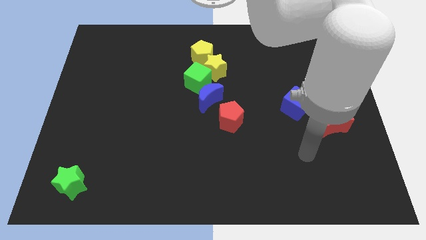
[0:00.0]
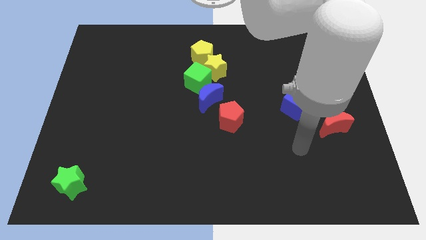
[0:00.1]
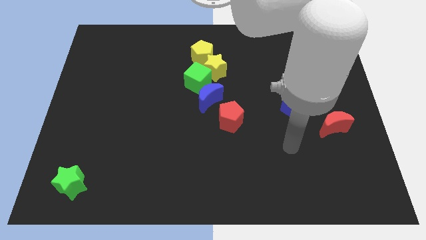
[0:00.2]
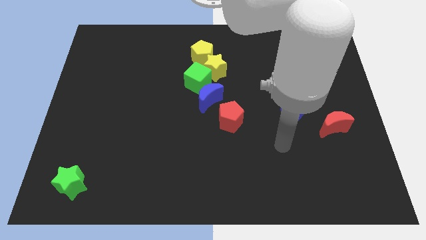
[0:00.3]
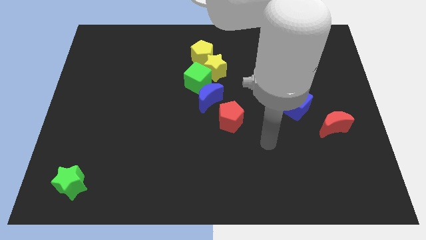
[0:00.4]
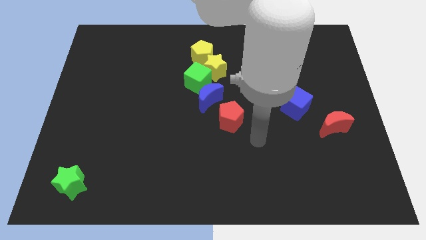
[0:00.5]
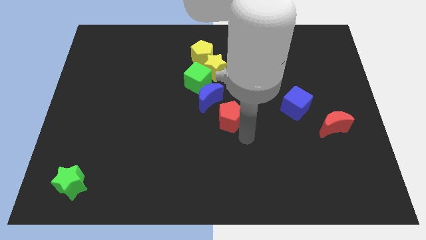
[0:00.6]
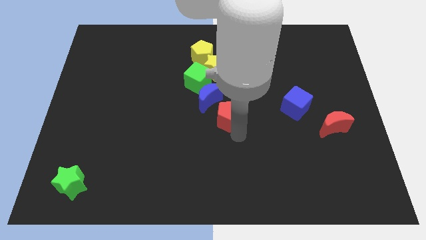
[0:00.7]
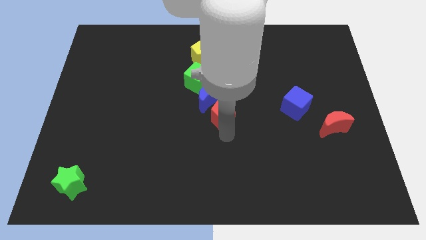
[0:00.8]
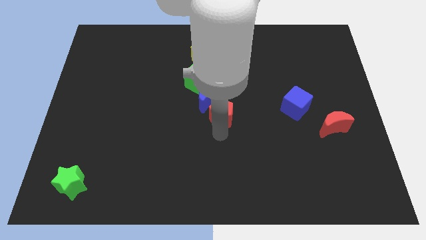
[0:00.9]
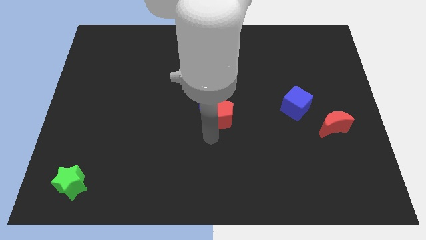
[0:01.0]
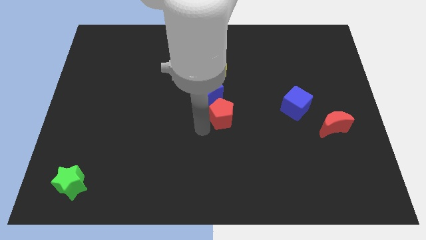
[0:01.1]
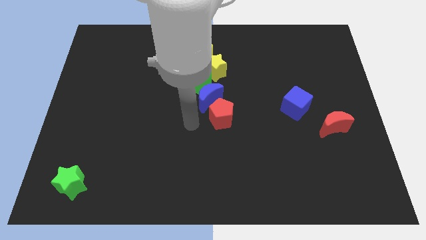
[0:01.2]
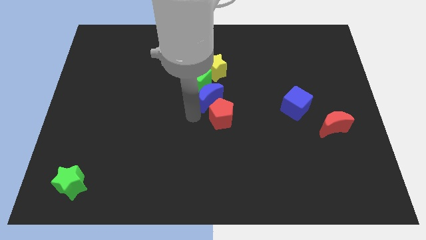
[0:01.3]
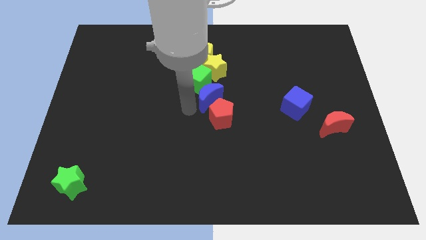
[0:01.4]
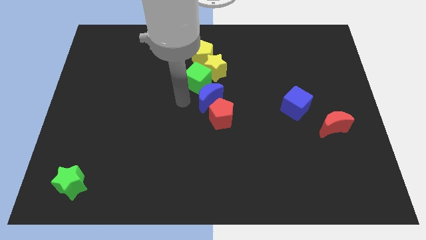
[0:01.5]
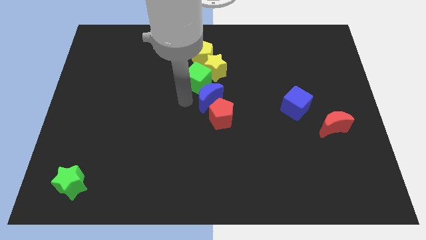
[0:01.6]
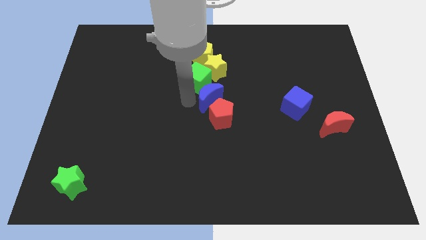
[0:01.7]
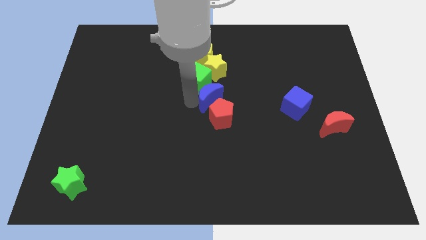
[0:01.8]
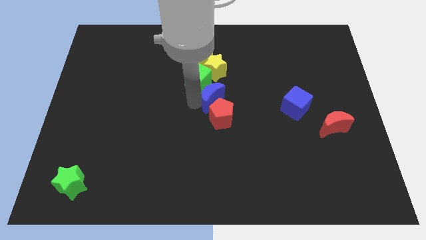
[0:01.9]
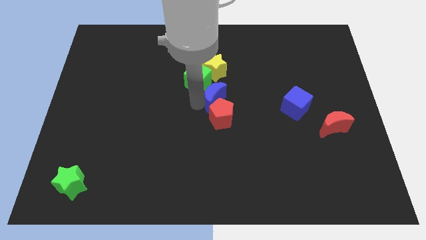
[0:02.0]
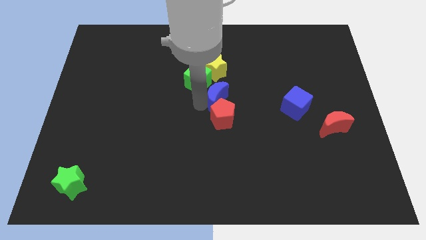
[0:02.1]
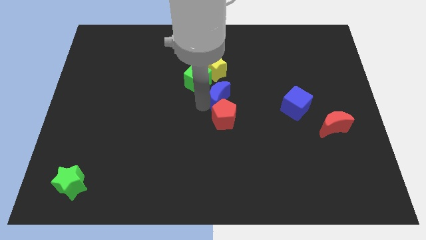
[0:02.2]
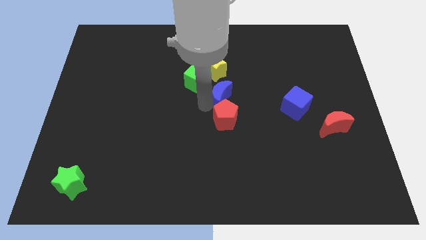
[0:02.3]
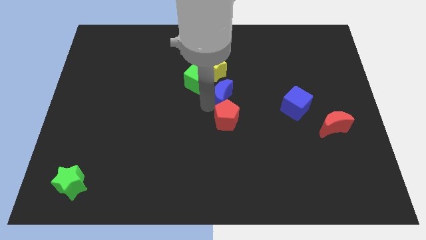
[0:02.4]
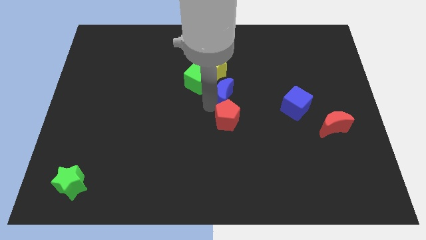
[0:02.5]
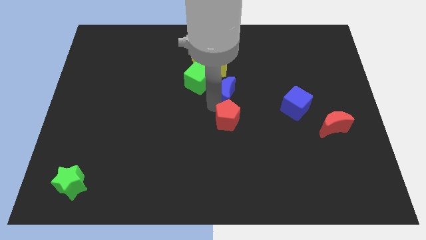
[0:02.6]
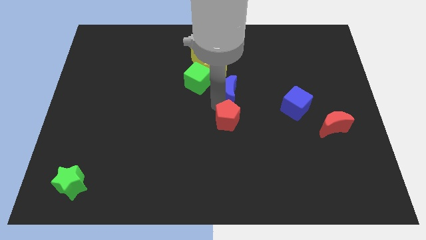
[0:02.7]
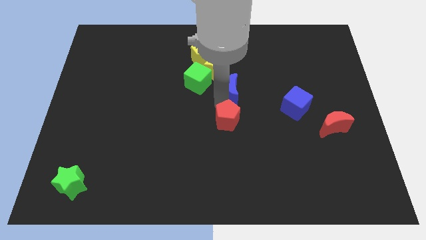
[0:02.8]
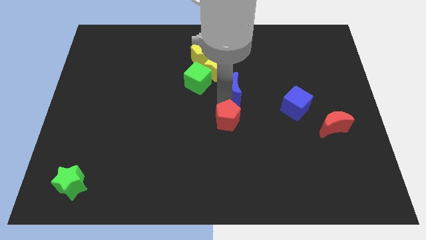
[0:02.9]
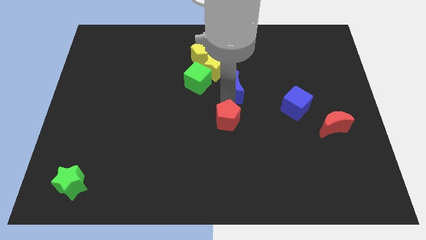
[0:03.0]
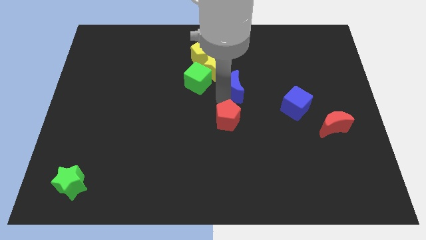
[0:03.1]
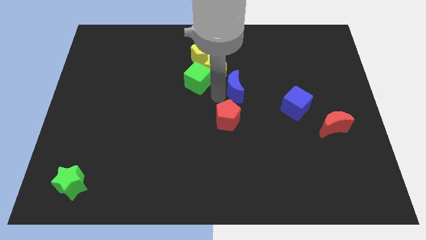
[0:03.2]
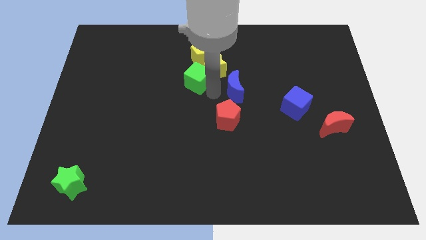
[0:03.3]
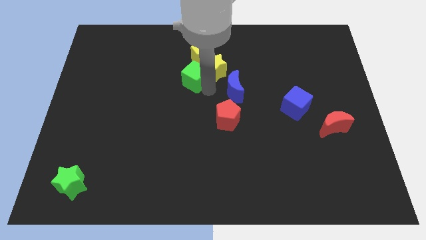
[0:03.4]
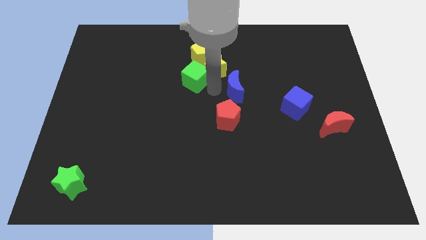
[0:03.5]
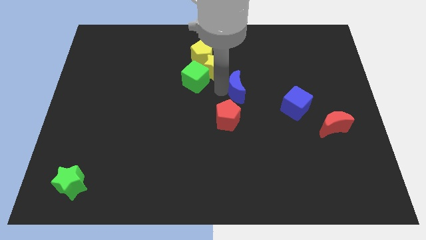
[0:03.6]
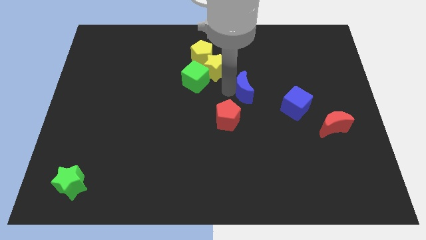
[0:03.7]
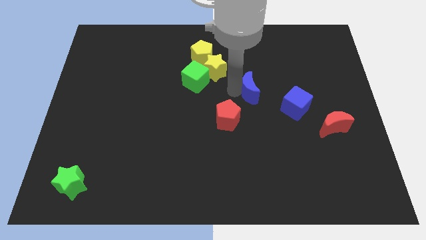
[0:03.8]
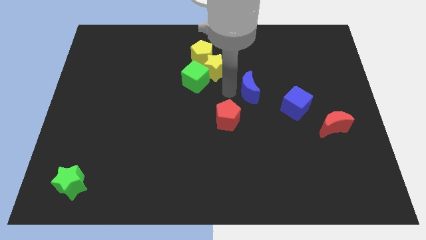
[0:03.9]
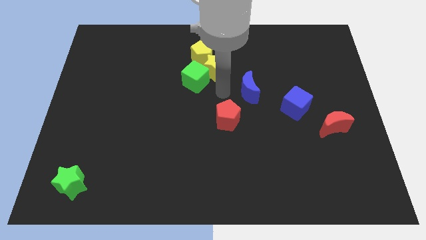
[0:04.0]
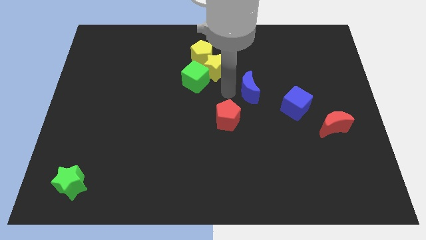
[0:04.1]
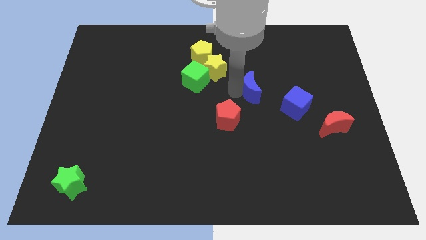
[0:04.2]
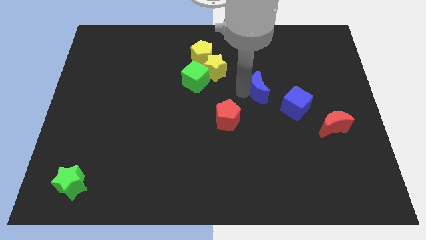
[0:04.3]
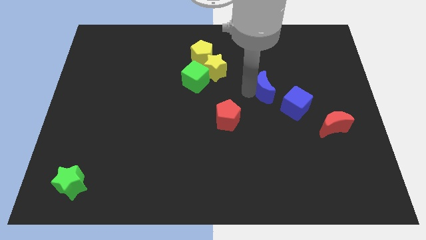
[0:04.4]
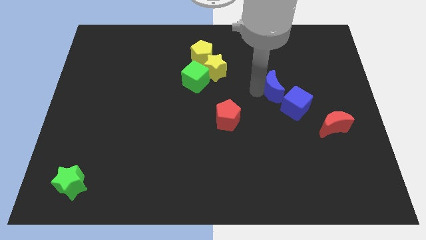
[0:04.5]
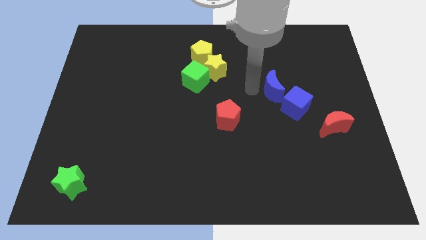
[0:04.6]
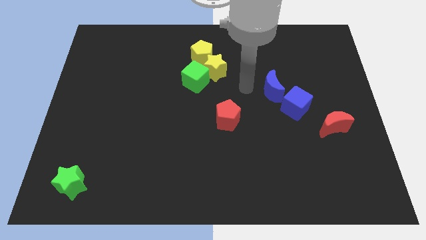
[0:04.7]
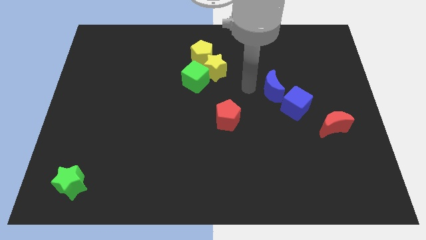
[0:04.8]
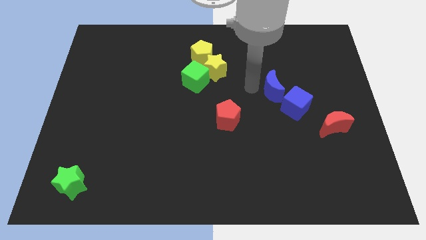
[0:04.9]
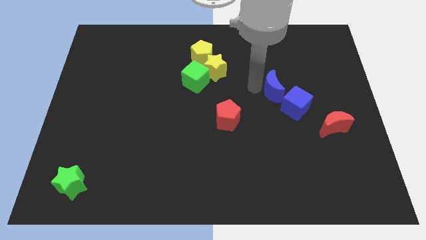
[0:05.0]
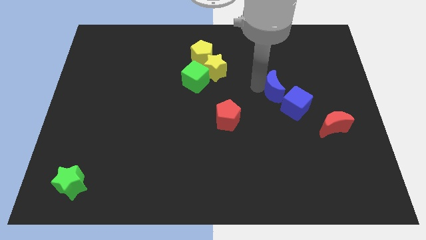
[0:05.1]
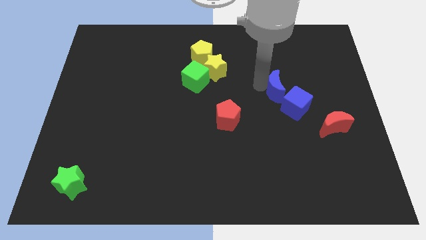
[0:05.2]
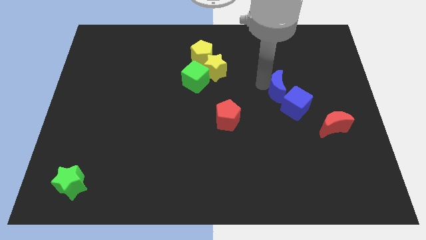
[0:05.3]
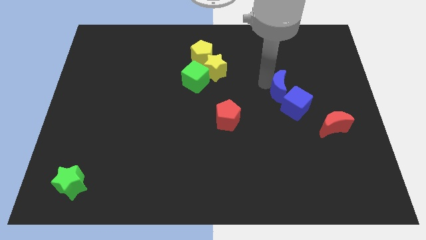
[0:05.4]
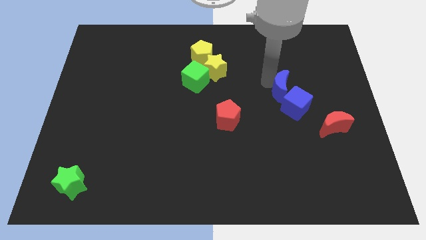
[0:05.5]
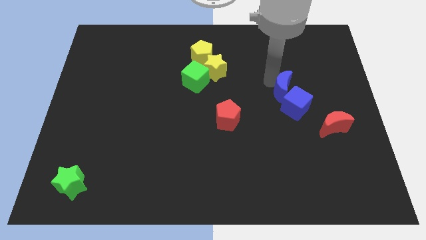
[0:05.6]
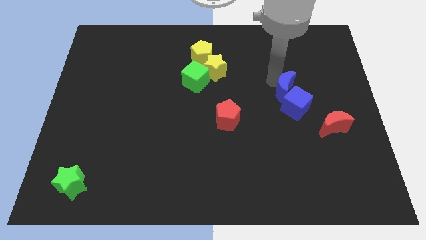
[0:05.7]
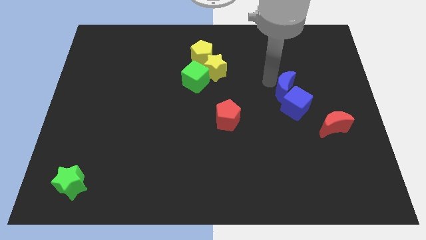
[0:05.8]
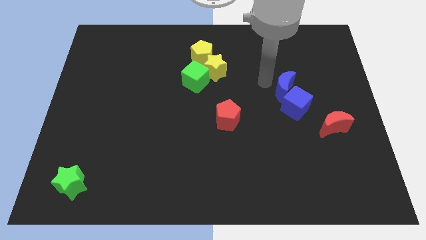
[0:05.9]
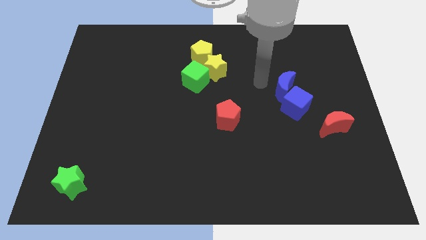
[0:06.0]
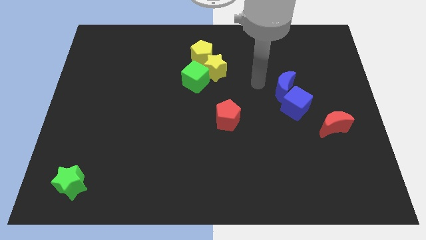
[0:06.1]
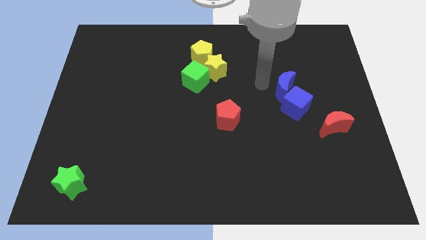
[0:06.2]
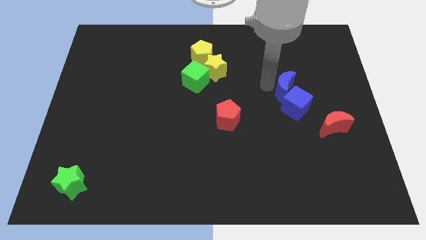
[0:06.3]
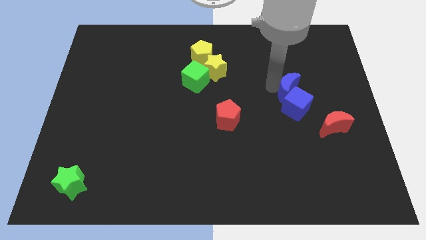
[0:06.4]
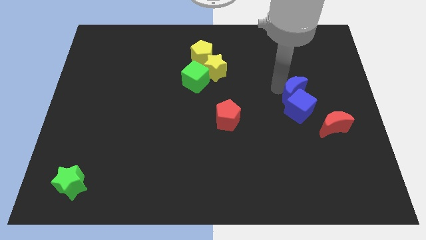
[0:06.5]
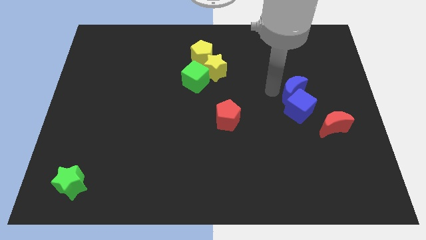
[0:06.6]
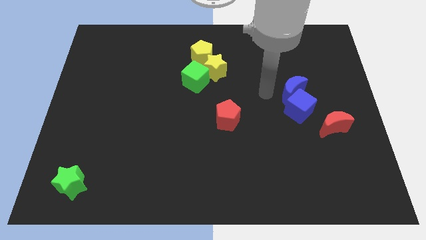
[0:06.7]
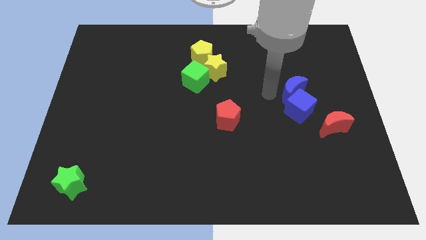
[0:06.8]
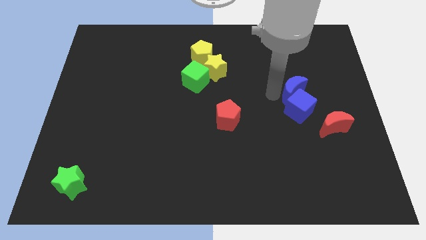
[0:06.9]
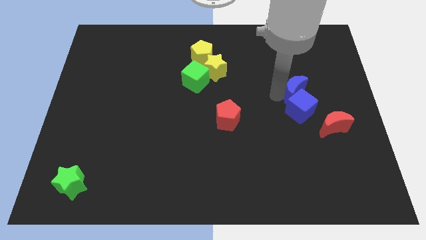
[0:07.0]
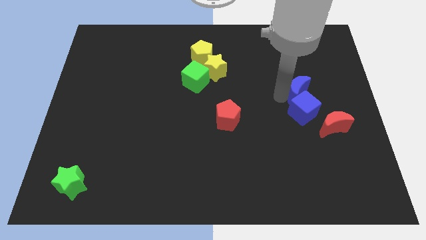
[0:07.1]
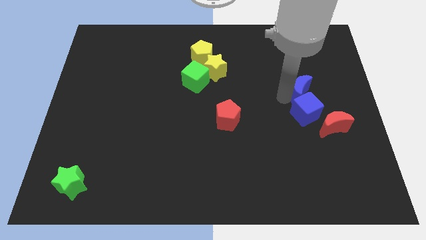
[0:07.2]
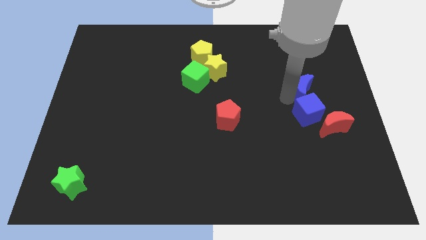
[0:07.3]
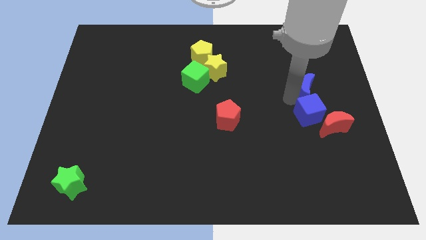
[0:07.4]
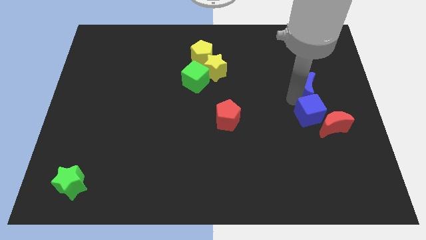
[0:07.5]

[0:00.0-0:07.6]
push the blue moon to the top side of the red moon
